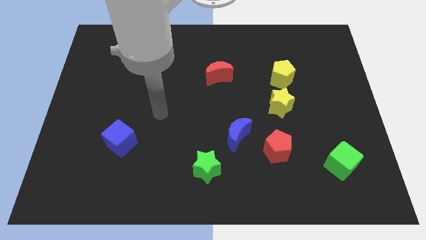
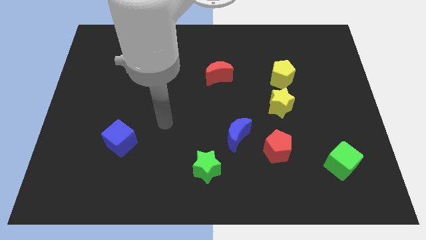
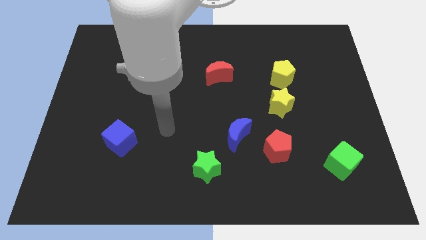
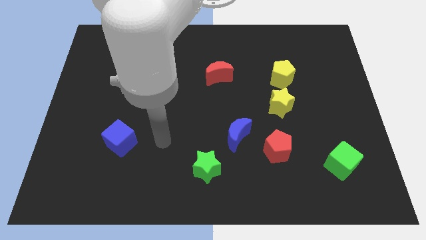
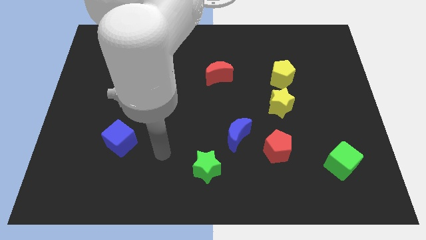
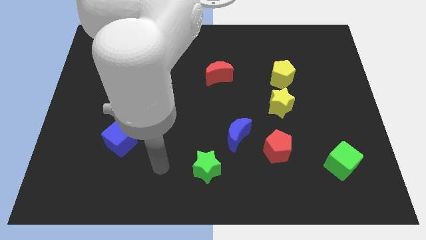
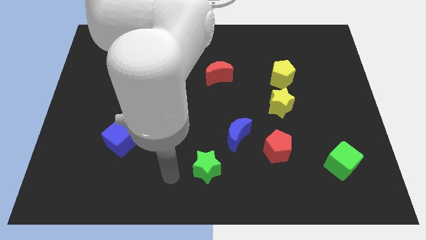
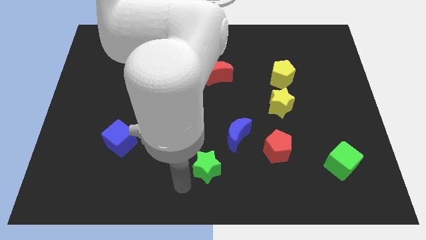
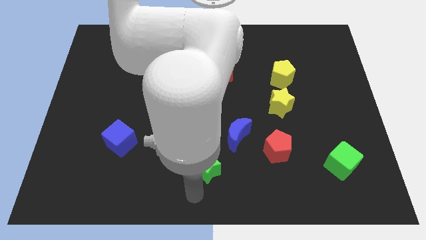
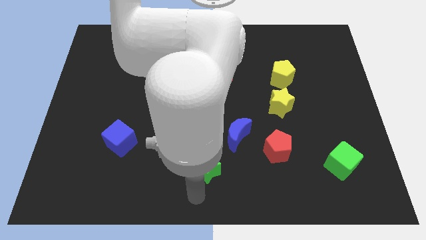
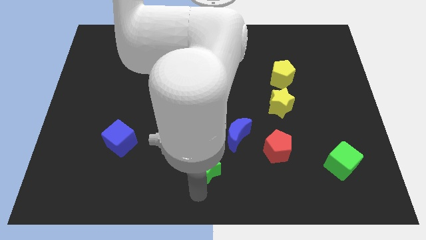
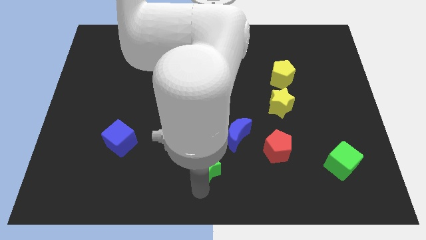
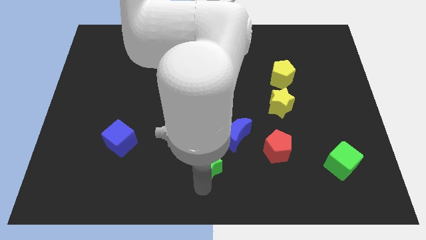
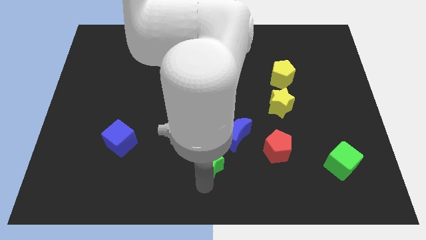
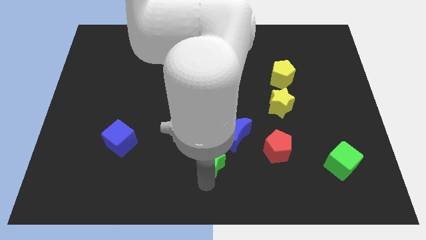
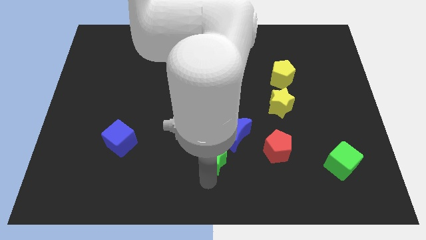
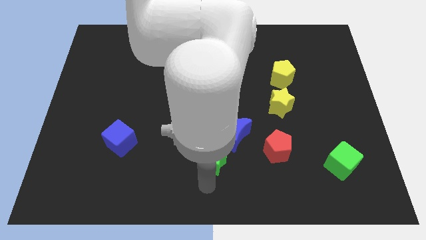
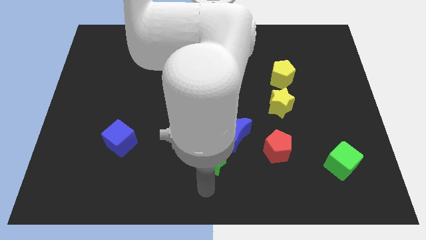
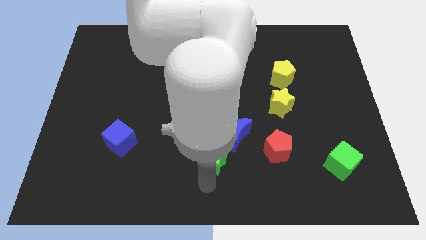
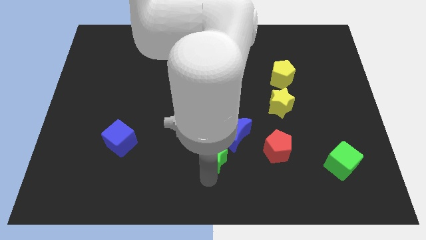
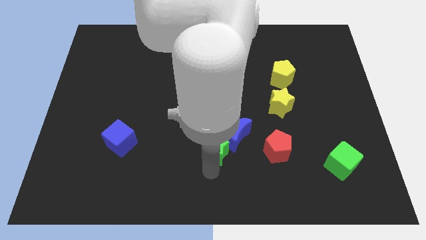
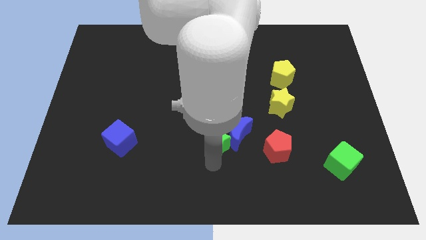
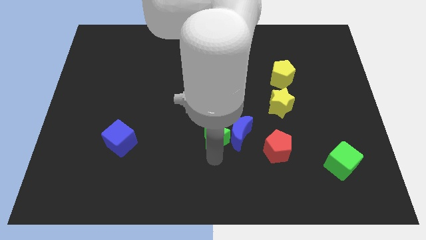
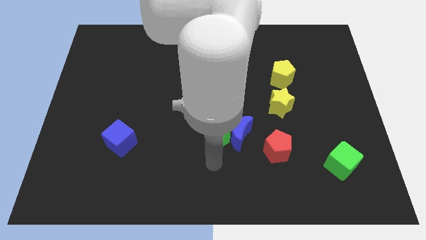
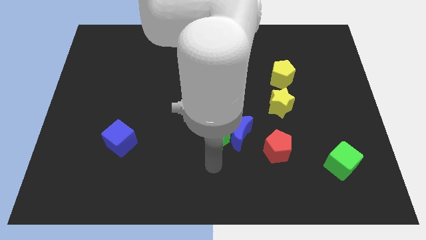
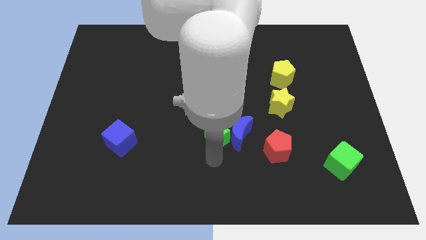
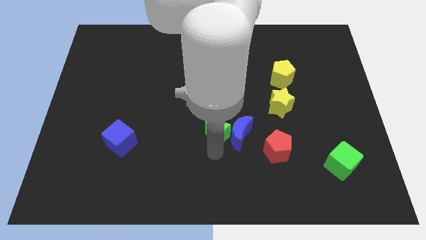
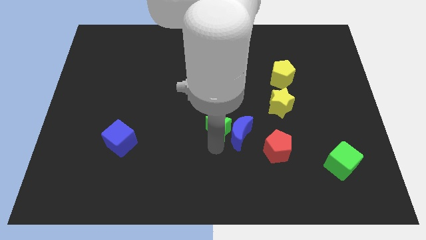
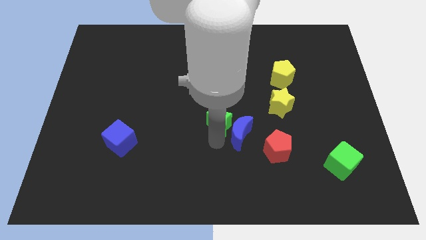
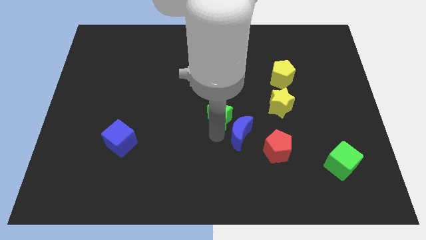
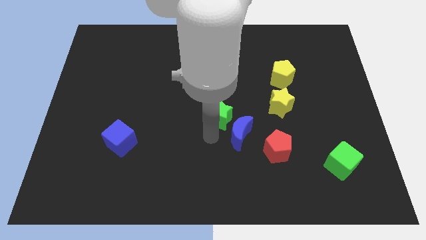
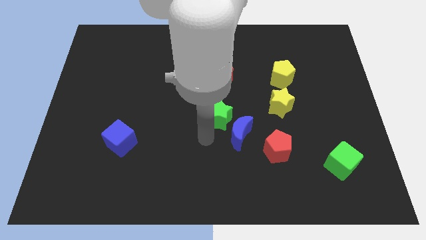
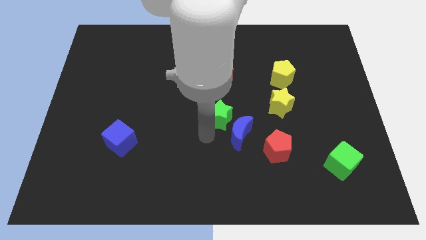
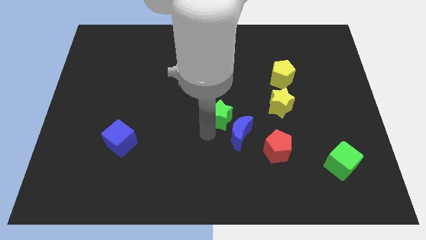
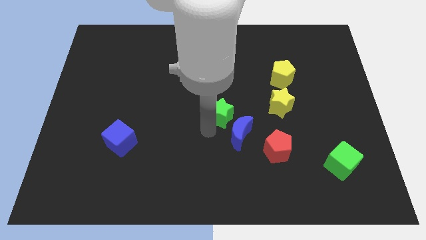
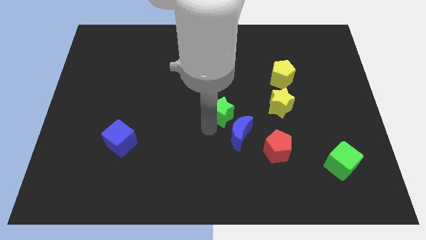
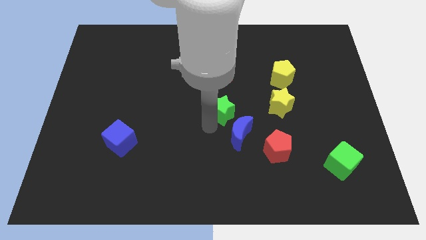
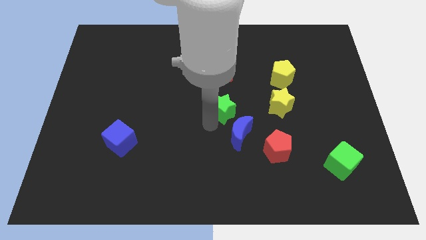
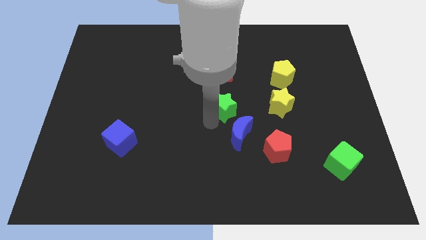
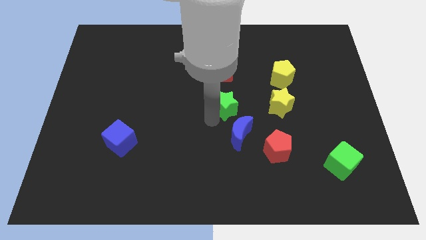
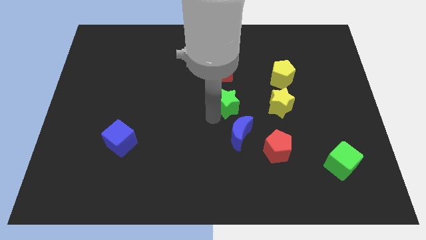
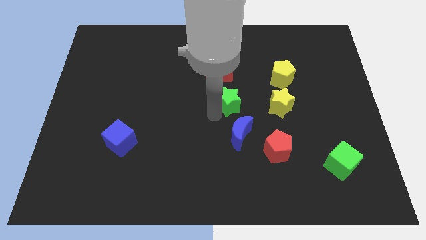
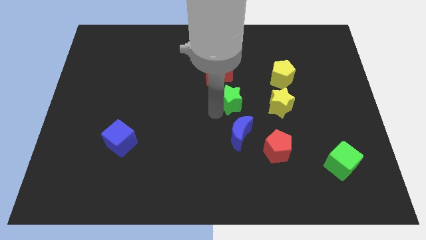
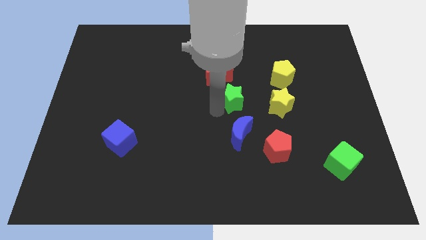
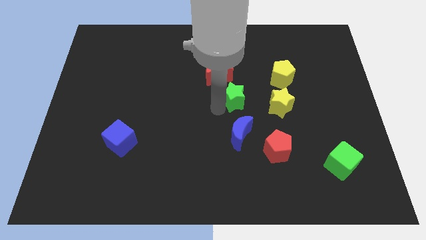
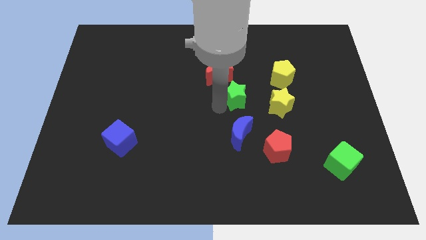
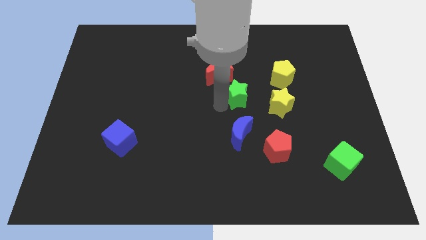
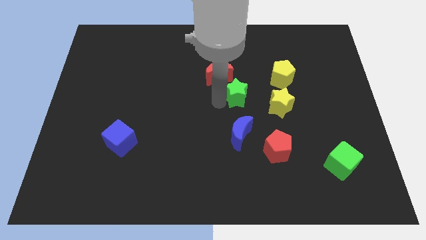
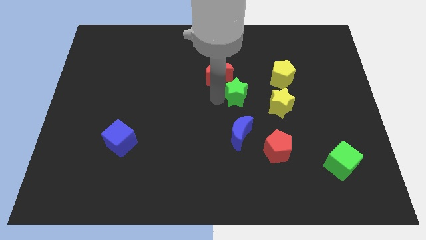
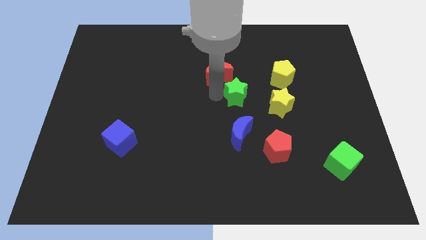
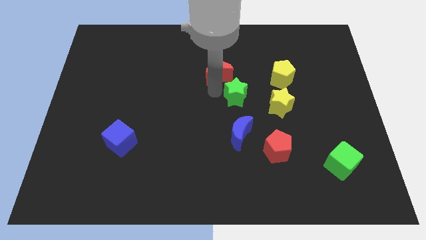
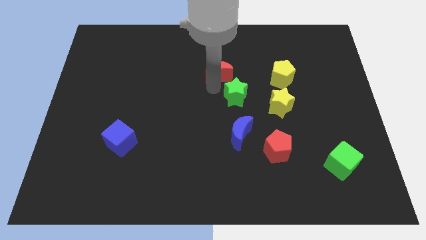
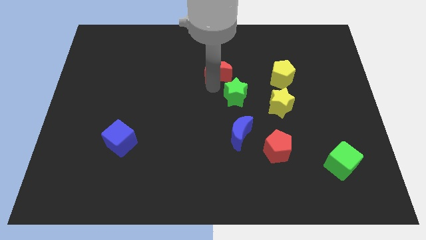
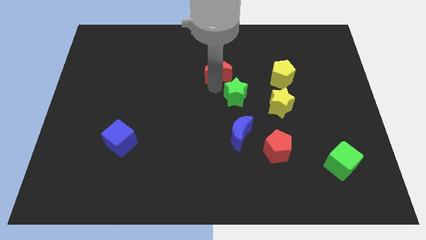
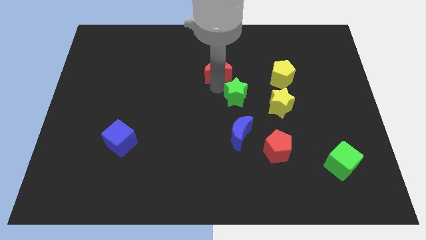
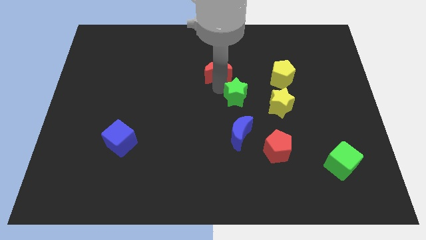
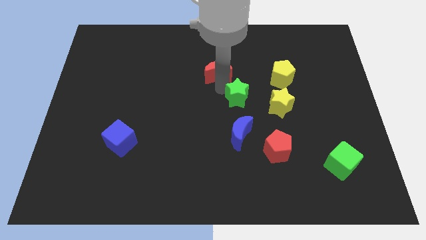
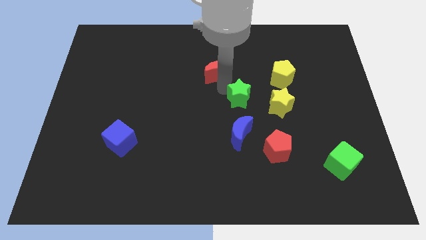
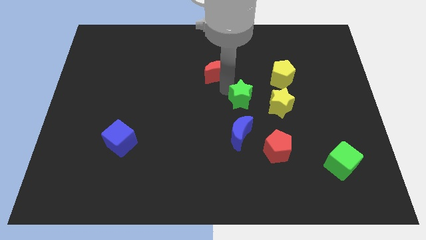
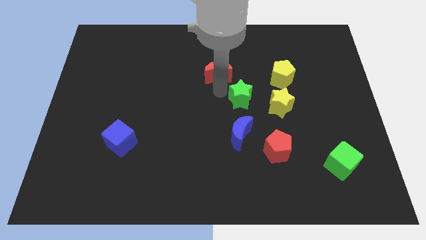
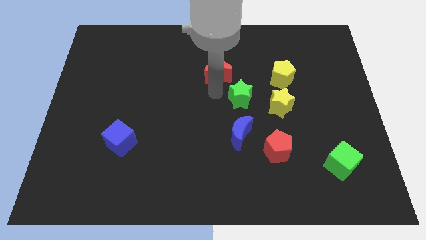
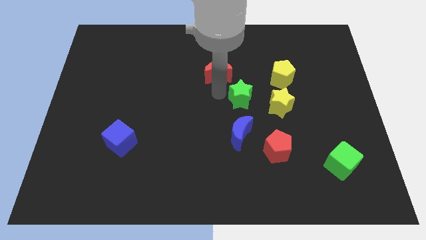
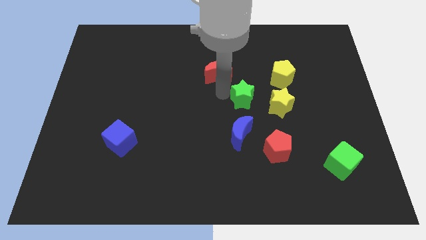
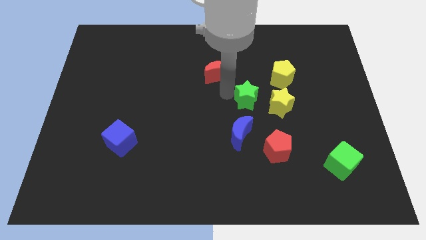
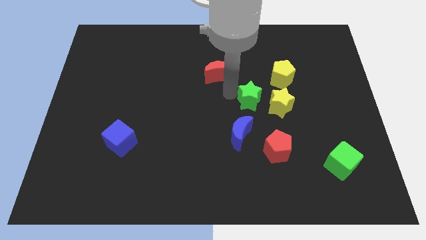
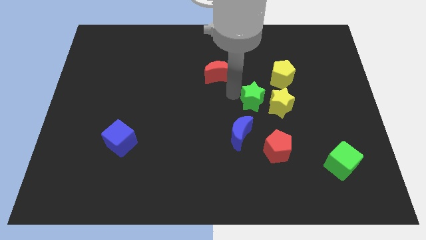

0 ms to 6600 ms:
put the green star close to the yellow star

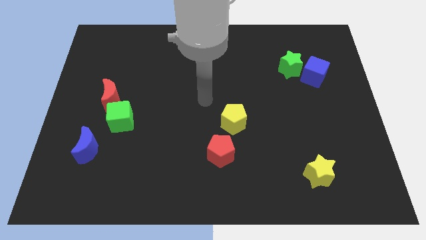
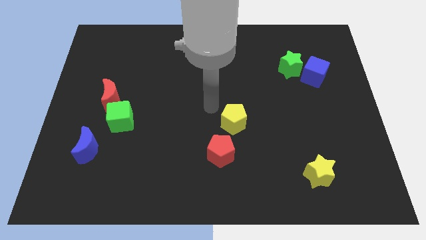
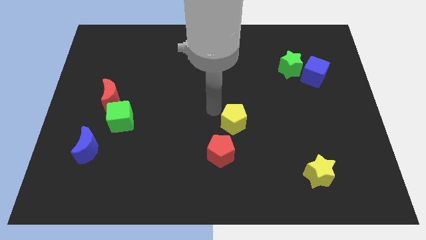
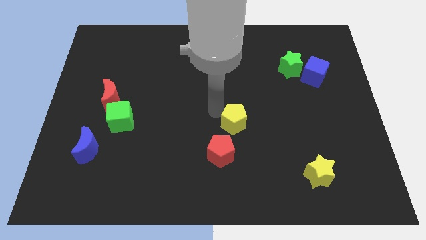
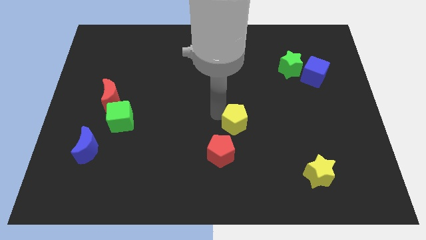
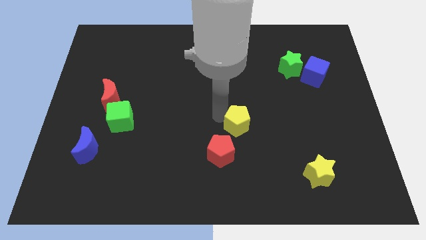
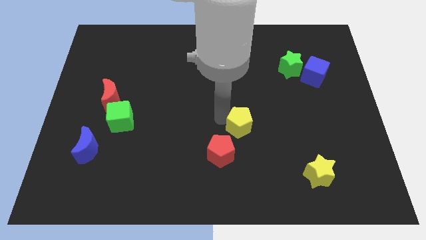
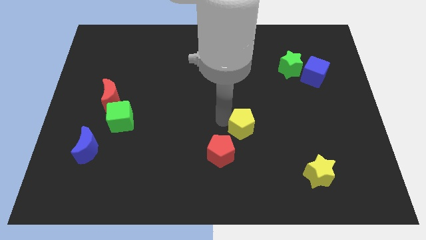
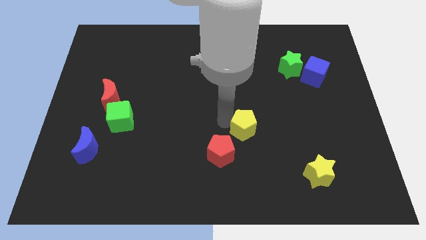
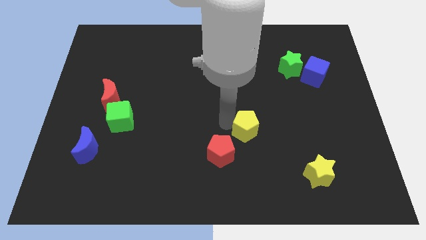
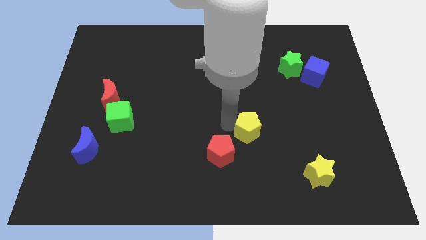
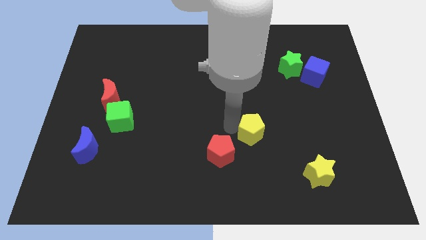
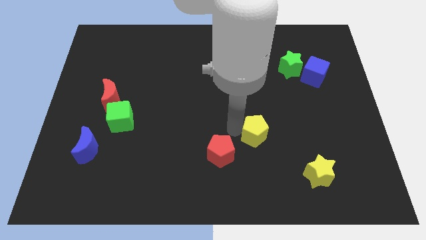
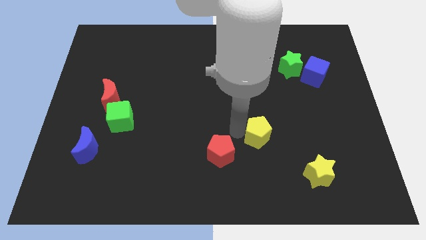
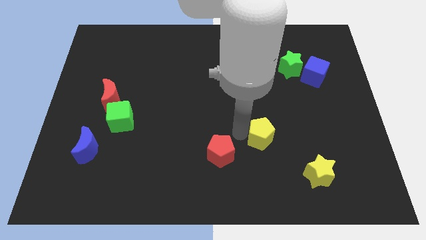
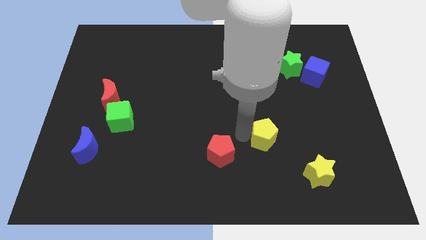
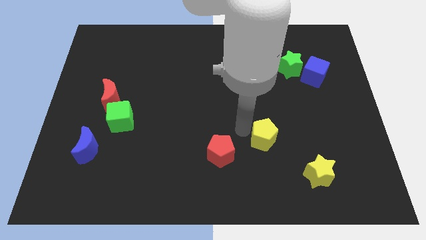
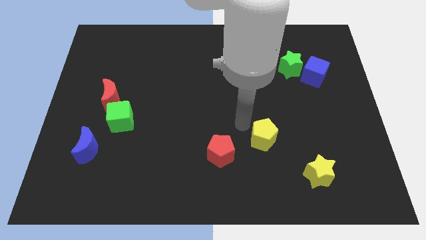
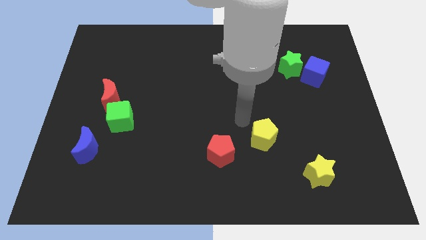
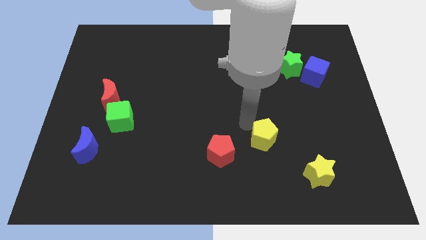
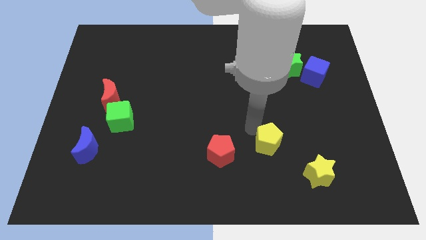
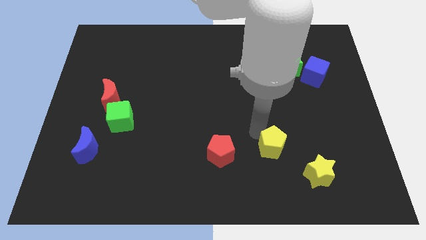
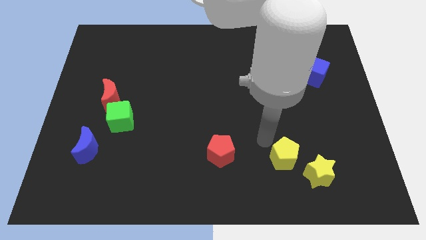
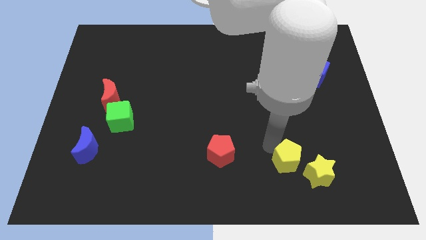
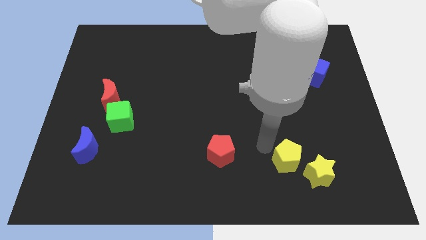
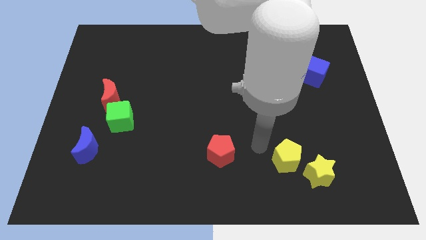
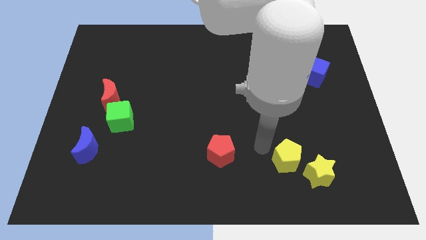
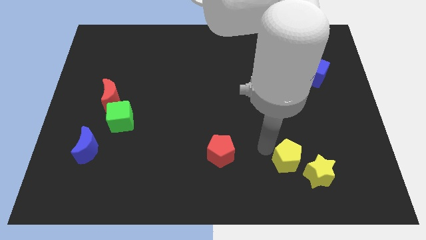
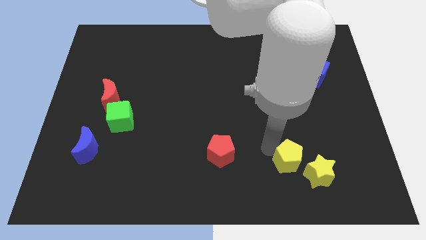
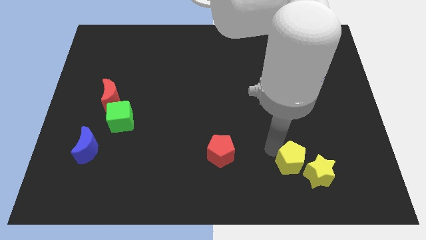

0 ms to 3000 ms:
put the yellow pentagon close to the yellow star
